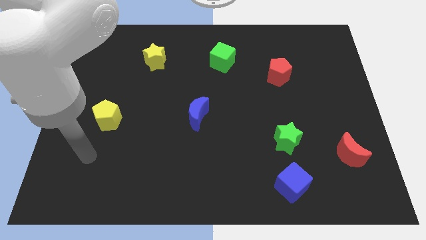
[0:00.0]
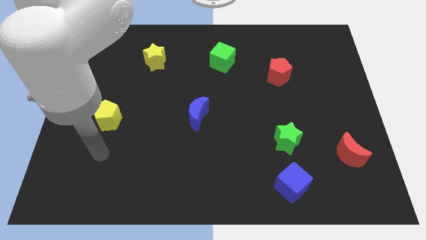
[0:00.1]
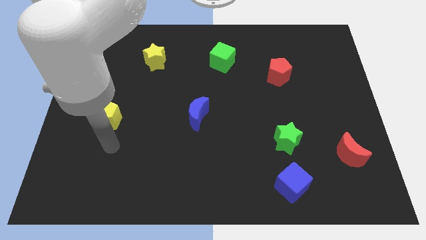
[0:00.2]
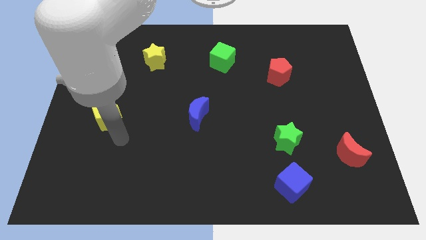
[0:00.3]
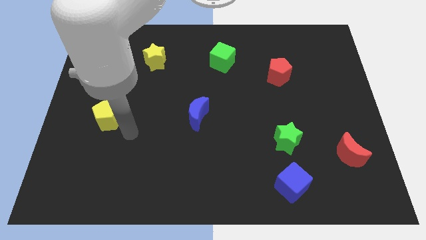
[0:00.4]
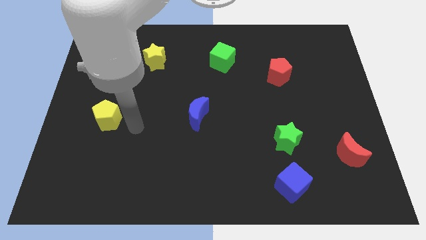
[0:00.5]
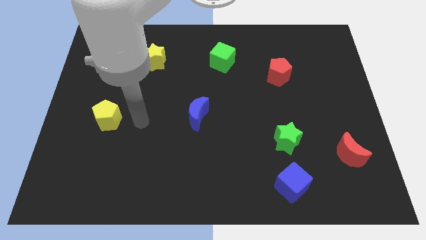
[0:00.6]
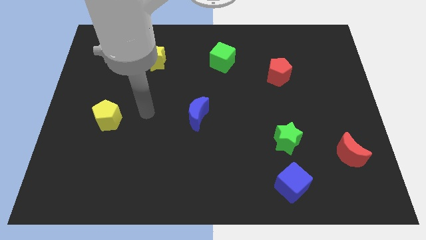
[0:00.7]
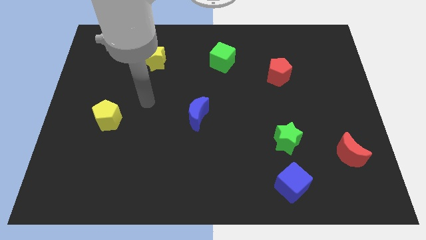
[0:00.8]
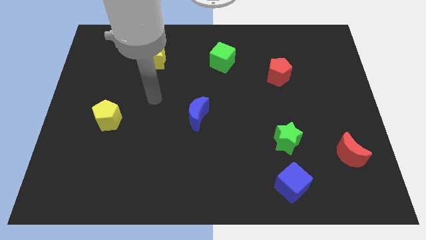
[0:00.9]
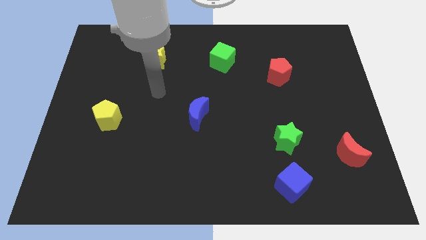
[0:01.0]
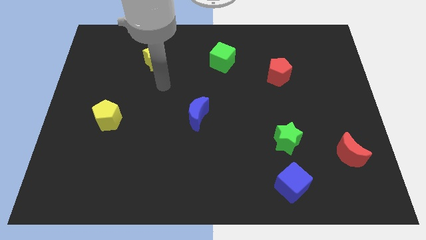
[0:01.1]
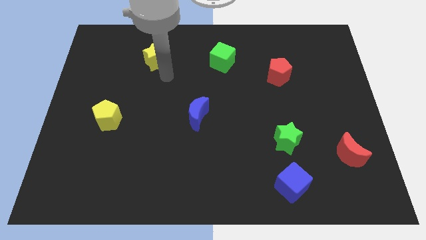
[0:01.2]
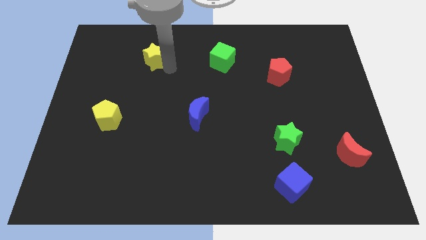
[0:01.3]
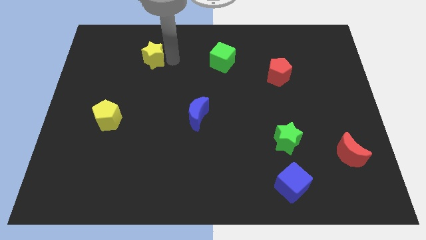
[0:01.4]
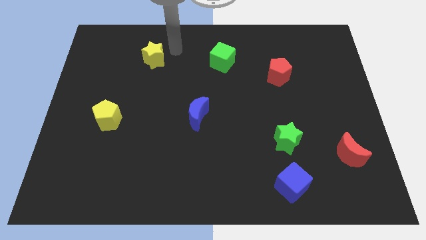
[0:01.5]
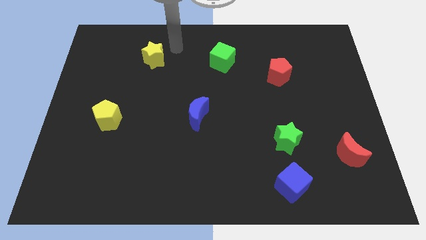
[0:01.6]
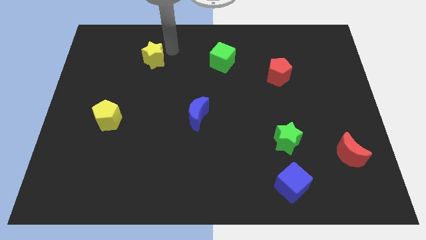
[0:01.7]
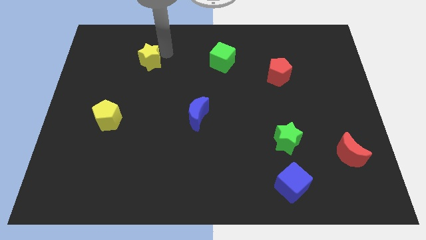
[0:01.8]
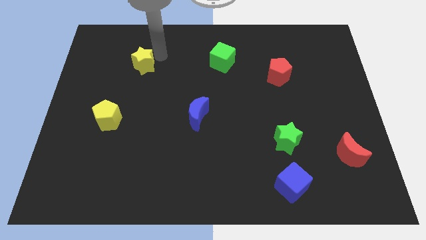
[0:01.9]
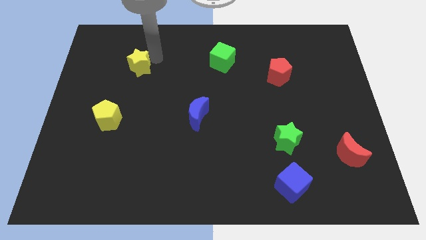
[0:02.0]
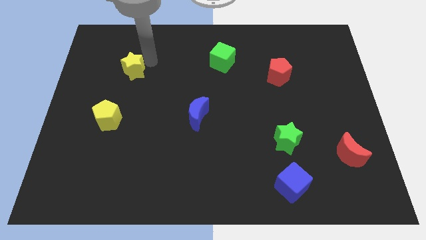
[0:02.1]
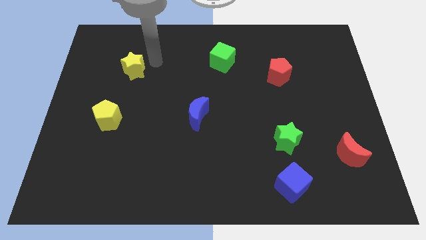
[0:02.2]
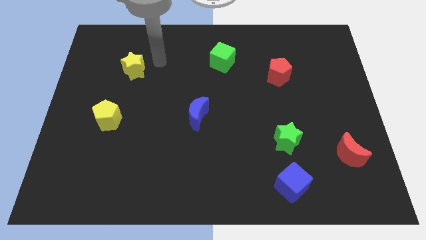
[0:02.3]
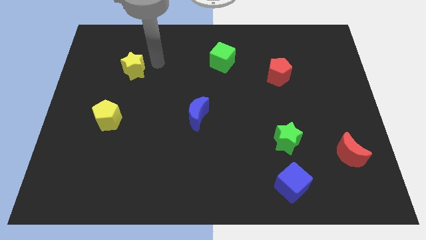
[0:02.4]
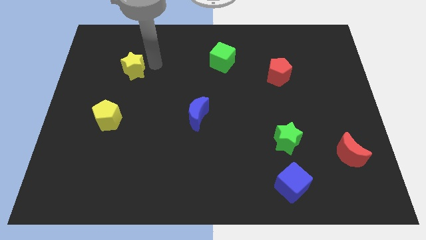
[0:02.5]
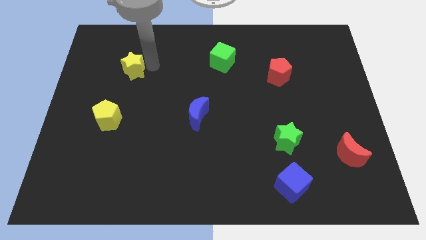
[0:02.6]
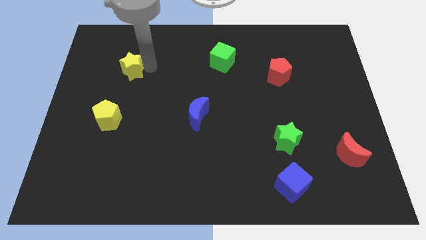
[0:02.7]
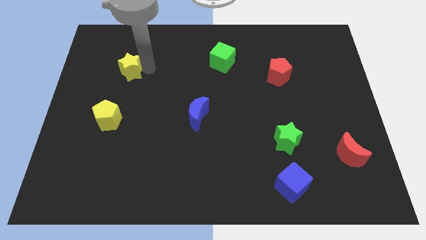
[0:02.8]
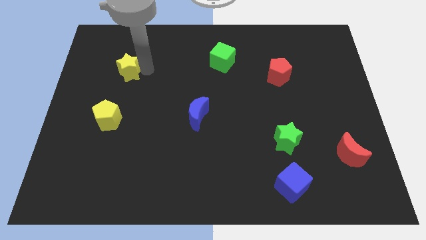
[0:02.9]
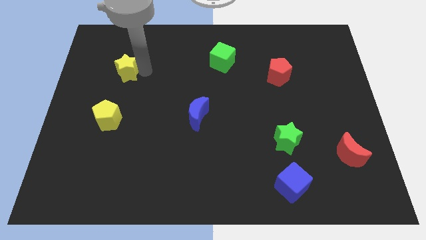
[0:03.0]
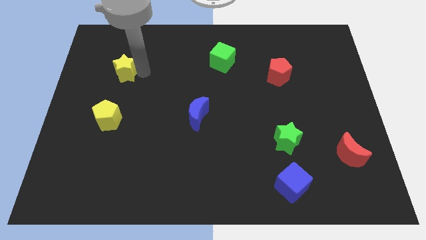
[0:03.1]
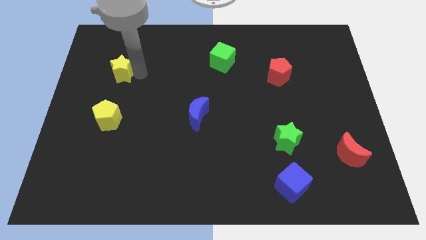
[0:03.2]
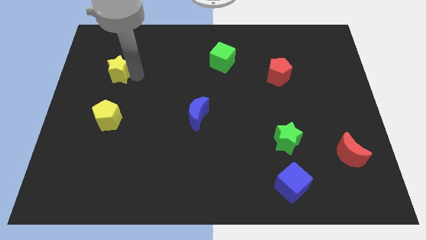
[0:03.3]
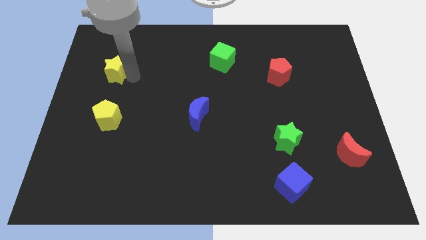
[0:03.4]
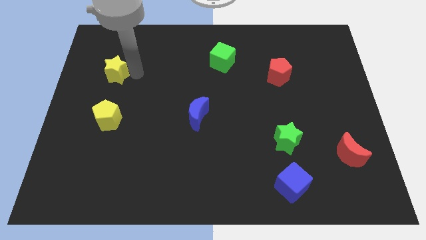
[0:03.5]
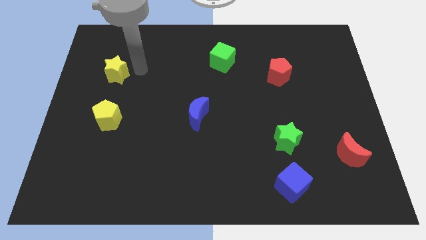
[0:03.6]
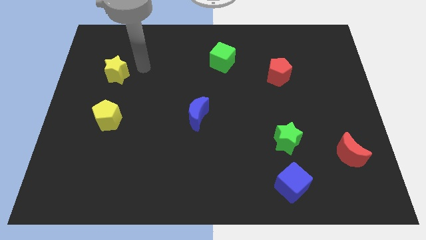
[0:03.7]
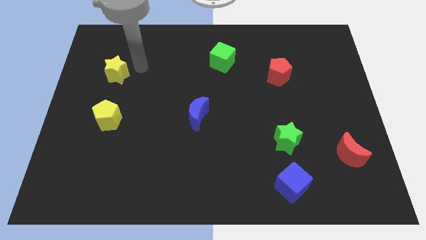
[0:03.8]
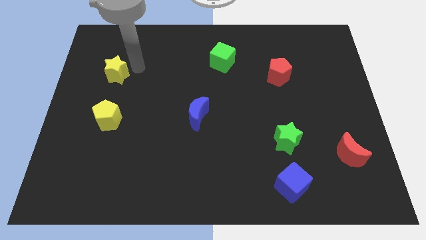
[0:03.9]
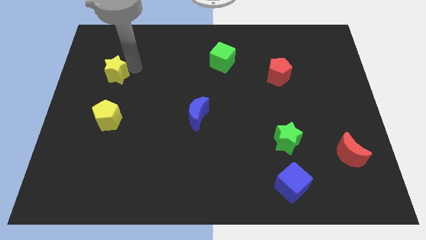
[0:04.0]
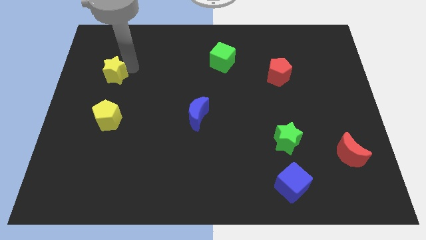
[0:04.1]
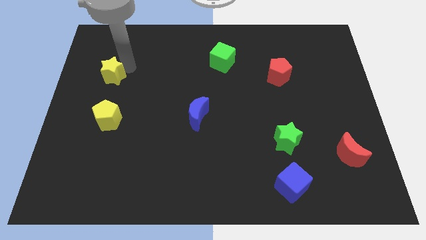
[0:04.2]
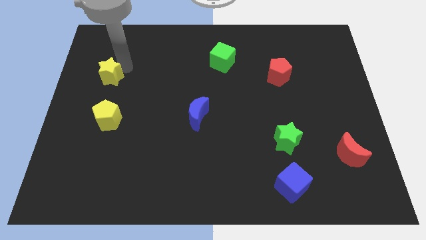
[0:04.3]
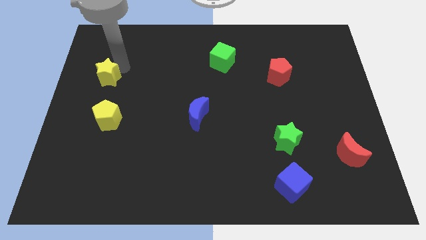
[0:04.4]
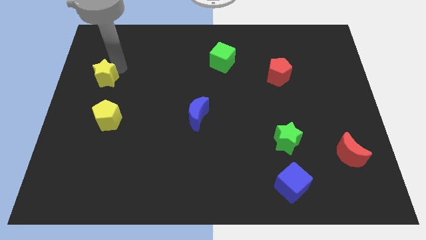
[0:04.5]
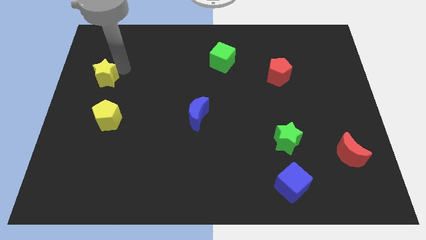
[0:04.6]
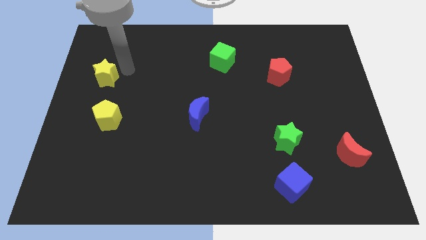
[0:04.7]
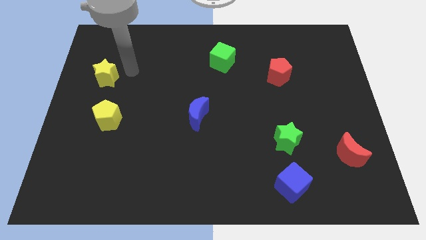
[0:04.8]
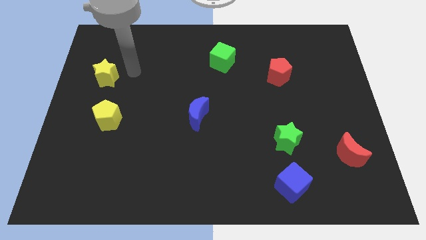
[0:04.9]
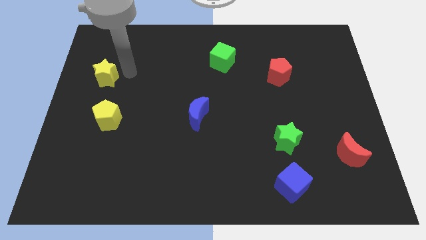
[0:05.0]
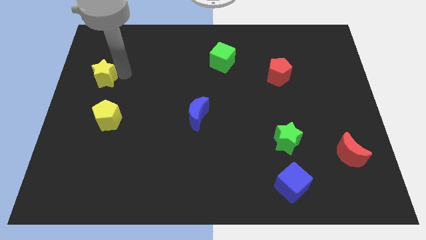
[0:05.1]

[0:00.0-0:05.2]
put the yellow star to the left side of the board

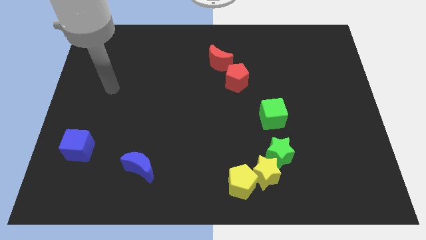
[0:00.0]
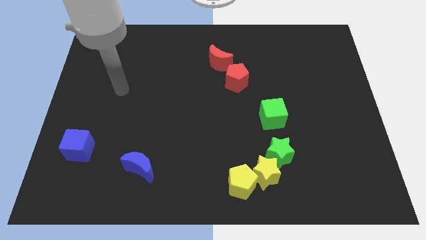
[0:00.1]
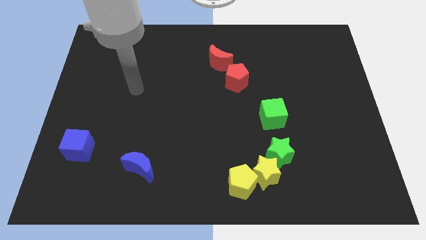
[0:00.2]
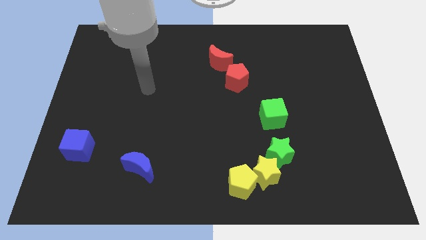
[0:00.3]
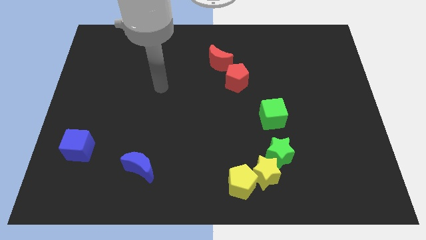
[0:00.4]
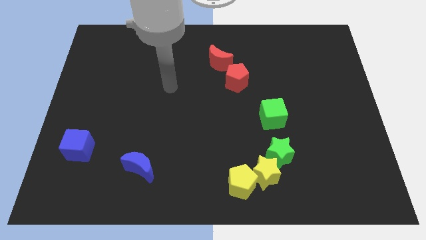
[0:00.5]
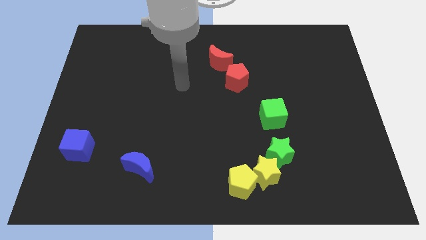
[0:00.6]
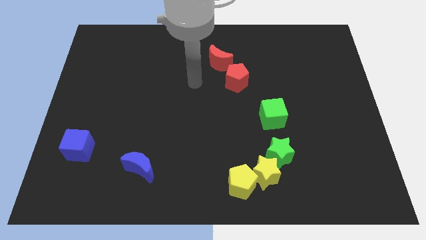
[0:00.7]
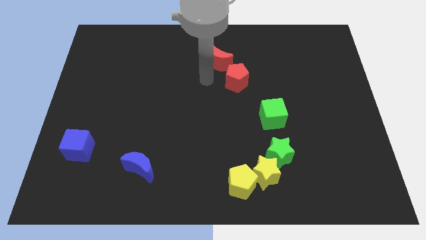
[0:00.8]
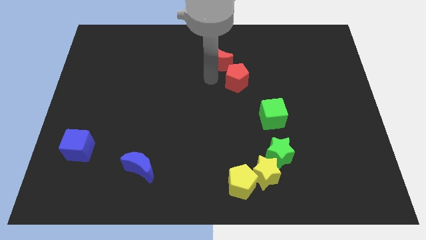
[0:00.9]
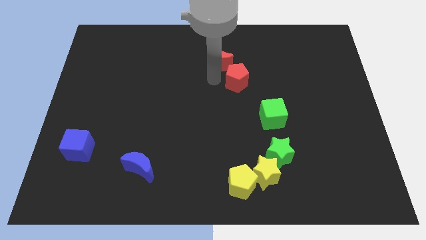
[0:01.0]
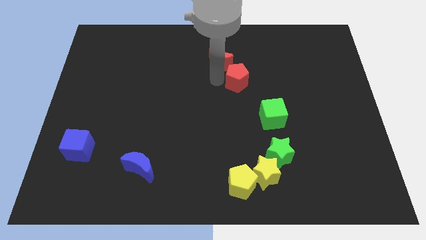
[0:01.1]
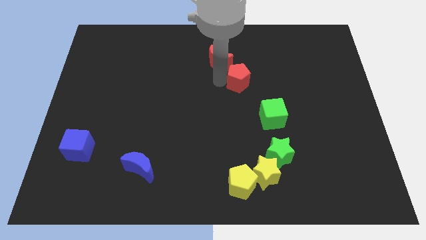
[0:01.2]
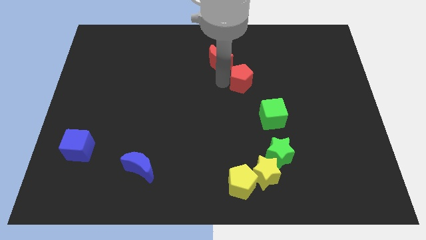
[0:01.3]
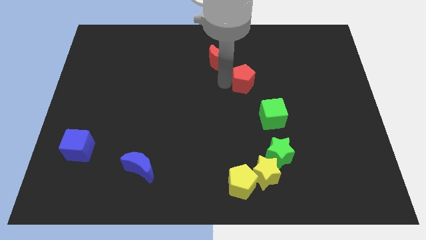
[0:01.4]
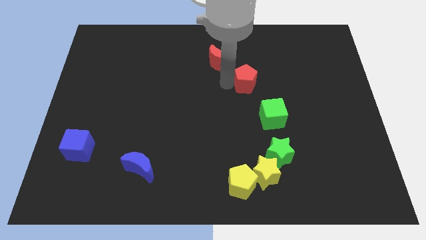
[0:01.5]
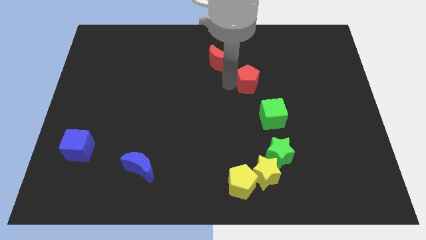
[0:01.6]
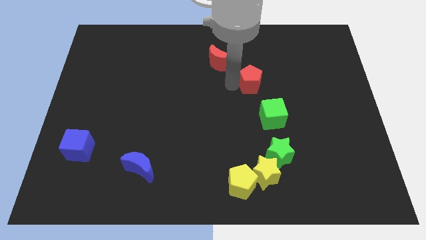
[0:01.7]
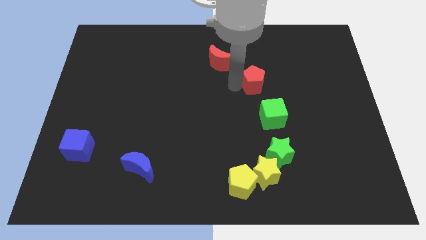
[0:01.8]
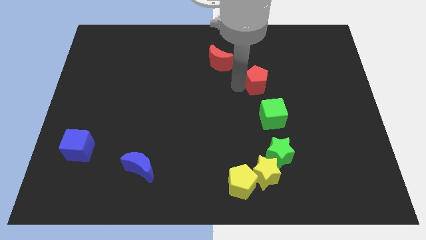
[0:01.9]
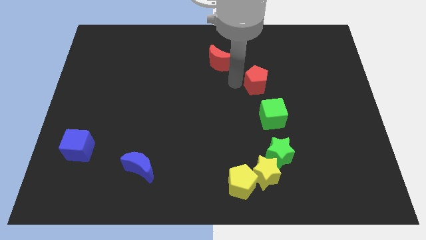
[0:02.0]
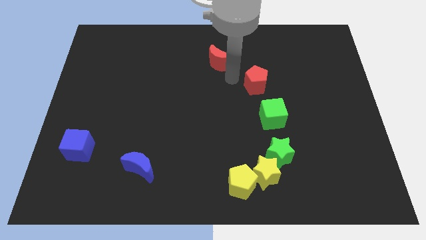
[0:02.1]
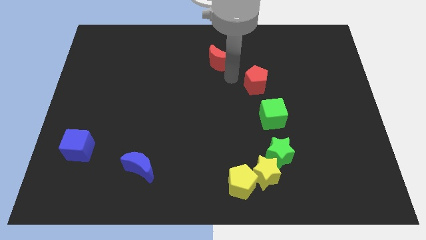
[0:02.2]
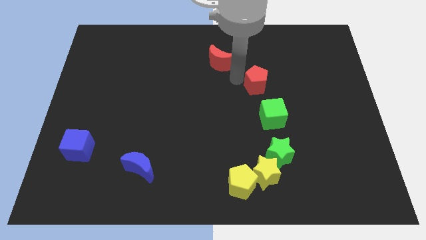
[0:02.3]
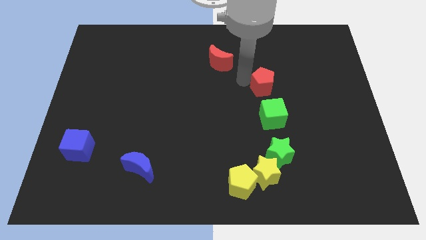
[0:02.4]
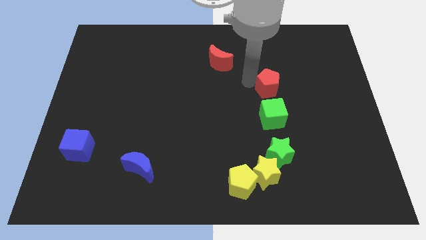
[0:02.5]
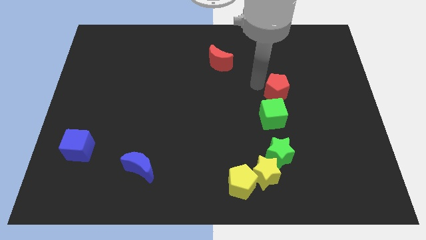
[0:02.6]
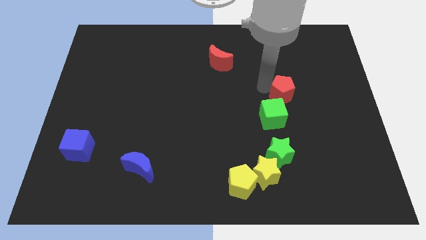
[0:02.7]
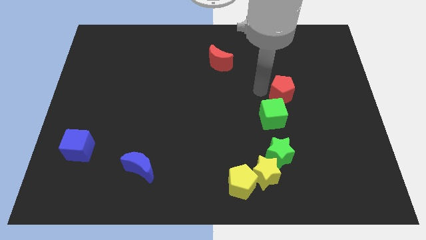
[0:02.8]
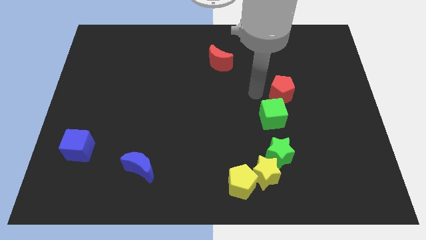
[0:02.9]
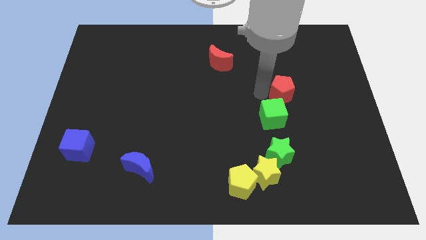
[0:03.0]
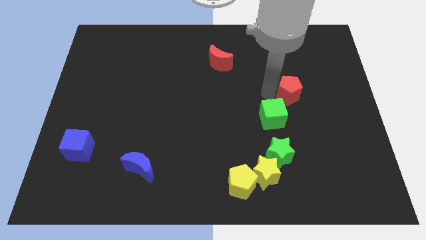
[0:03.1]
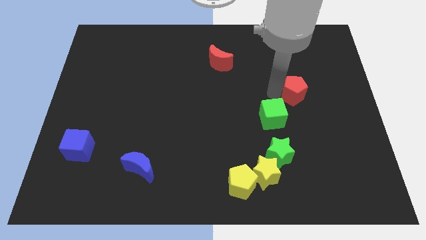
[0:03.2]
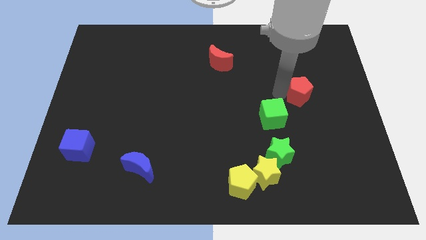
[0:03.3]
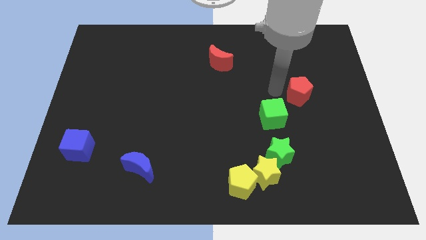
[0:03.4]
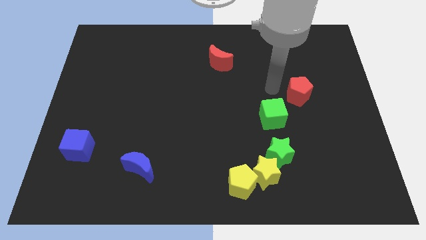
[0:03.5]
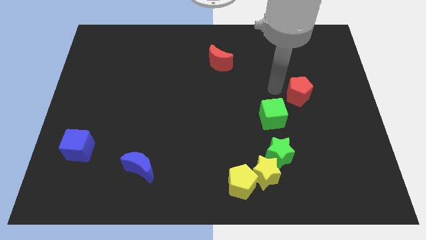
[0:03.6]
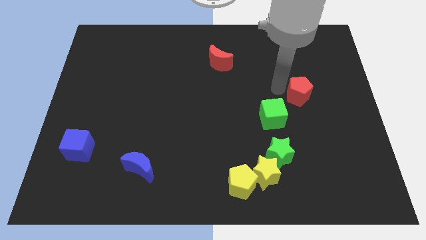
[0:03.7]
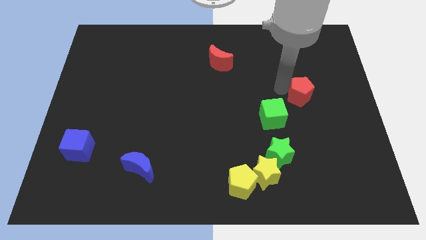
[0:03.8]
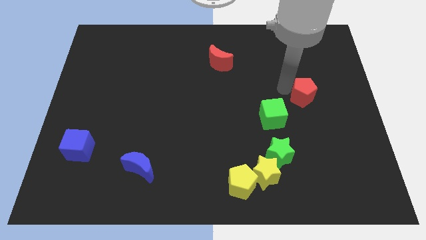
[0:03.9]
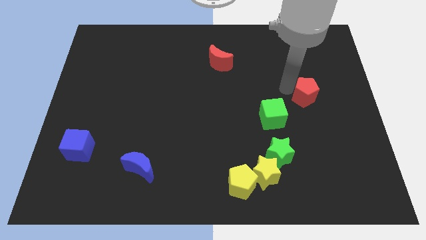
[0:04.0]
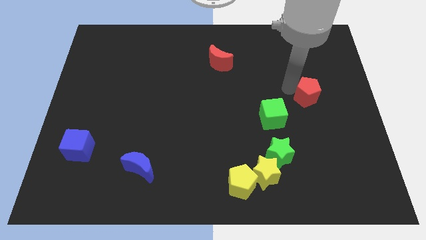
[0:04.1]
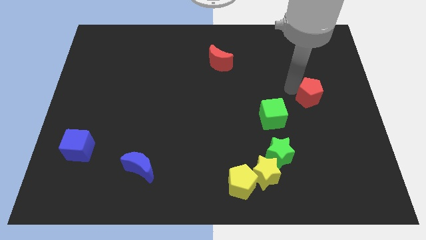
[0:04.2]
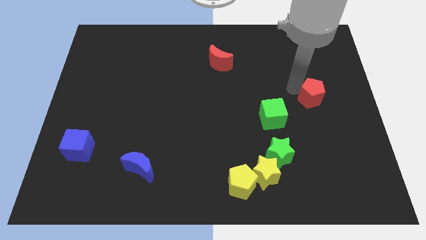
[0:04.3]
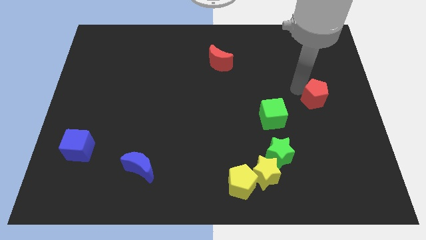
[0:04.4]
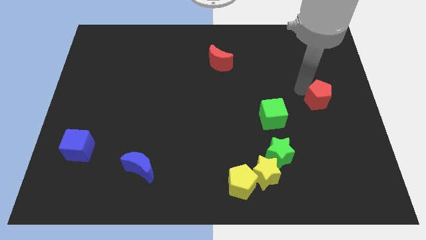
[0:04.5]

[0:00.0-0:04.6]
slide the red pentagon to the right side of the board
